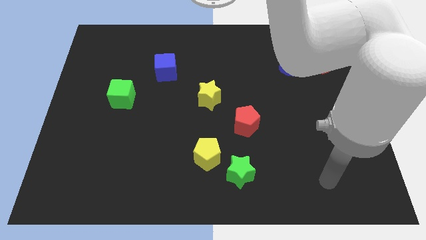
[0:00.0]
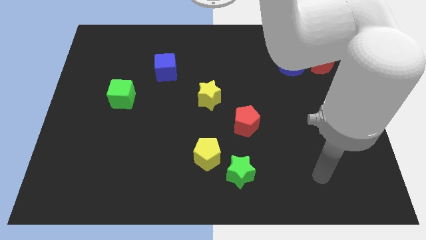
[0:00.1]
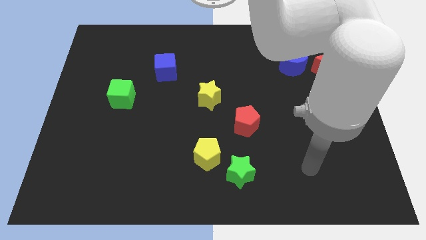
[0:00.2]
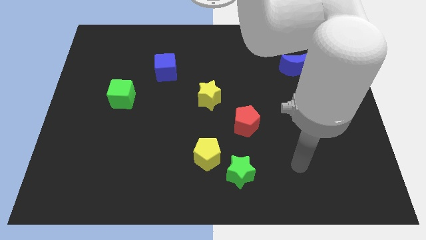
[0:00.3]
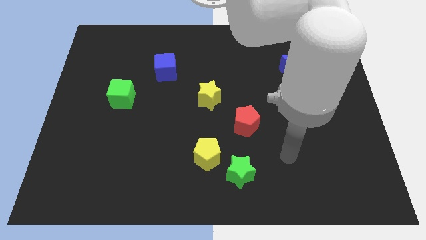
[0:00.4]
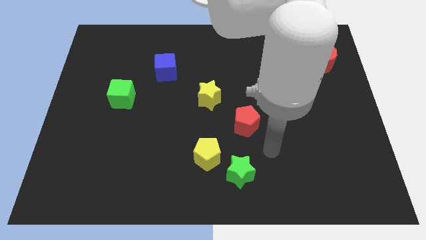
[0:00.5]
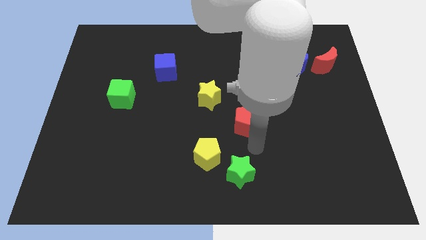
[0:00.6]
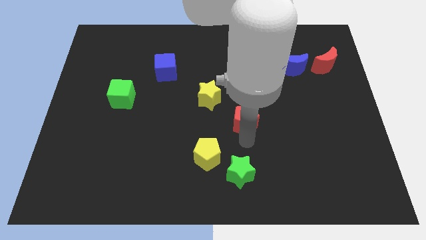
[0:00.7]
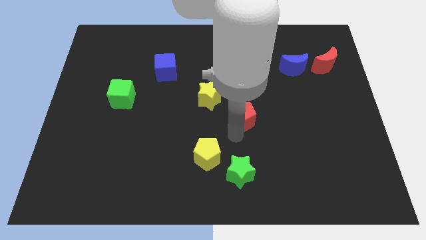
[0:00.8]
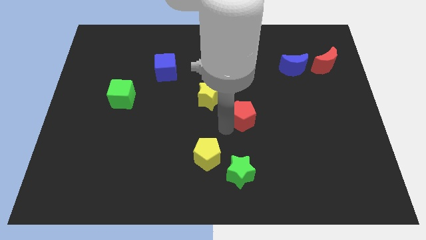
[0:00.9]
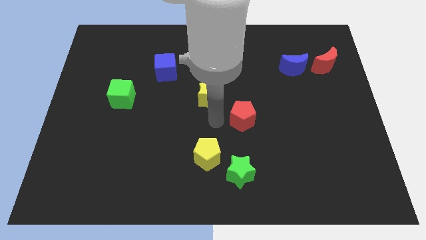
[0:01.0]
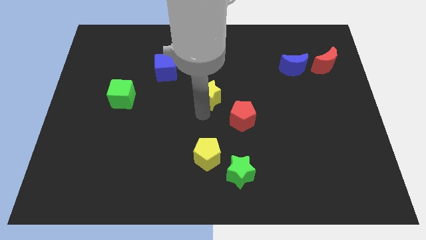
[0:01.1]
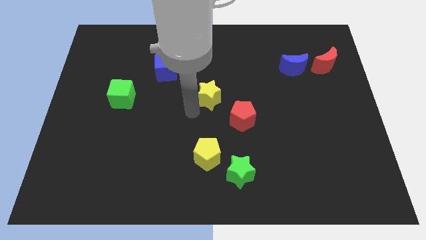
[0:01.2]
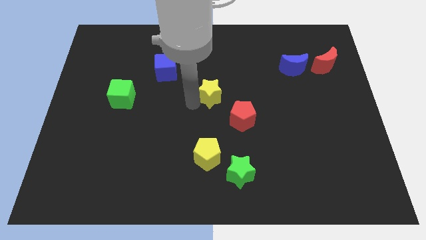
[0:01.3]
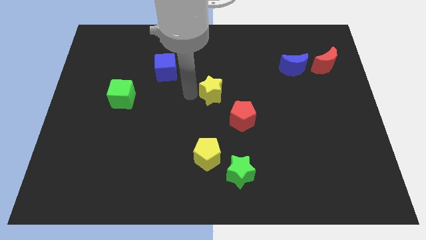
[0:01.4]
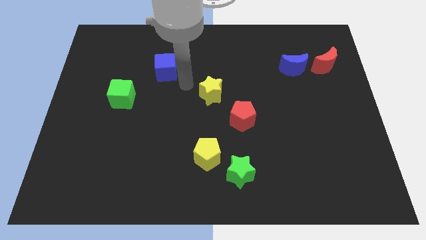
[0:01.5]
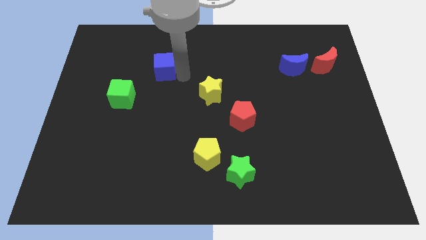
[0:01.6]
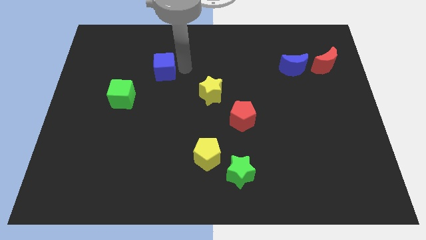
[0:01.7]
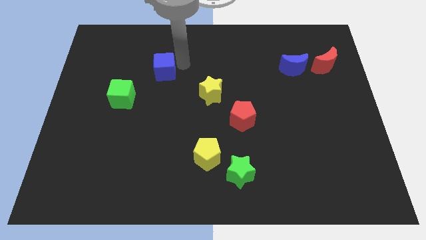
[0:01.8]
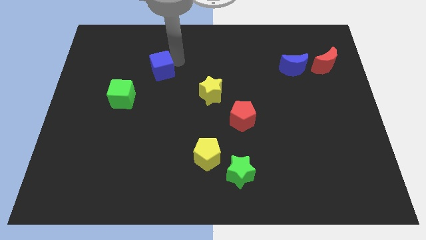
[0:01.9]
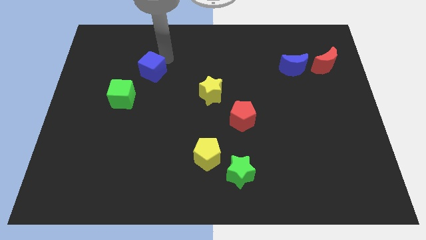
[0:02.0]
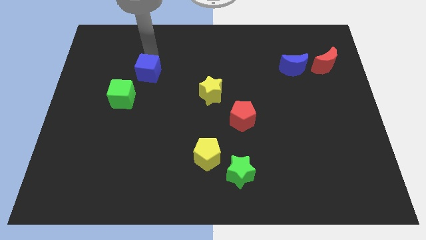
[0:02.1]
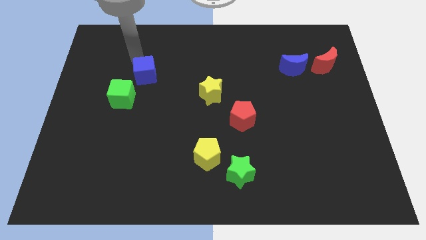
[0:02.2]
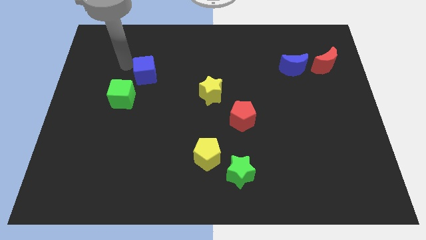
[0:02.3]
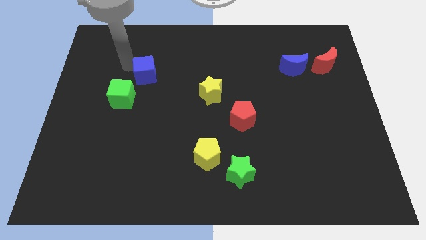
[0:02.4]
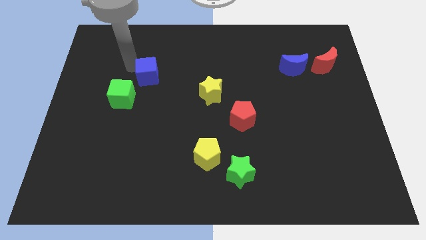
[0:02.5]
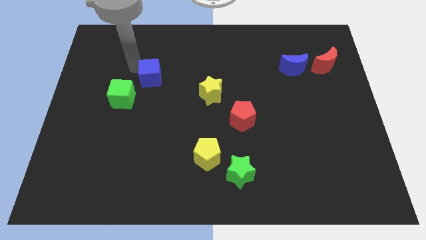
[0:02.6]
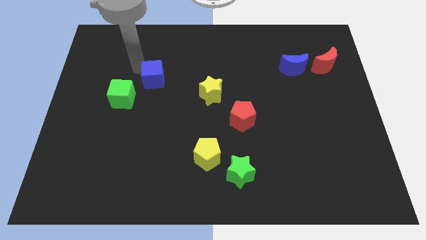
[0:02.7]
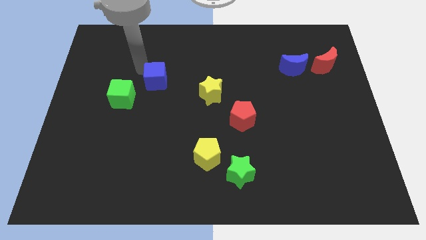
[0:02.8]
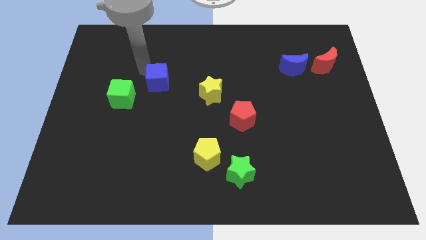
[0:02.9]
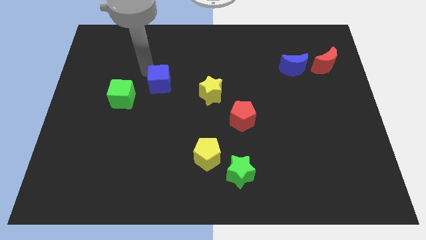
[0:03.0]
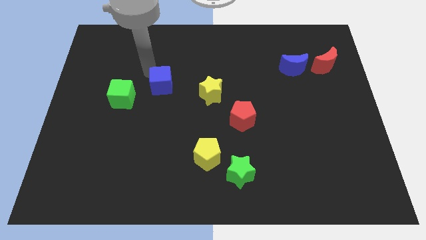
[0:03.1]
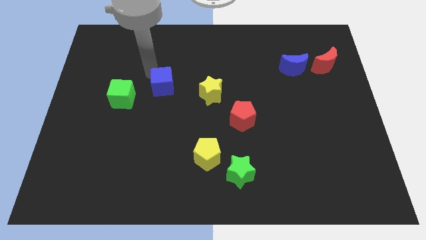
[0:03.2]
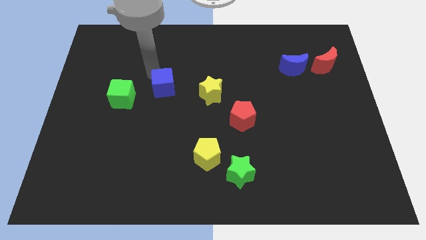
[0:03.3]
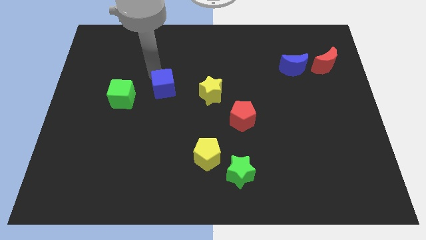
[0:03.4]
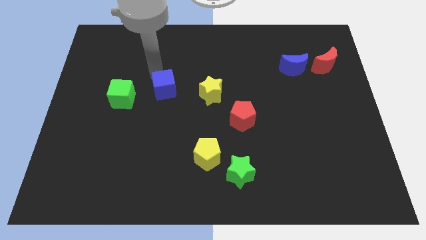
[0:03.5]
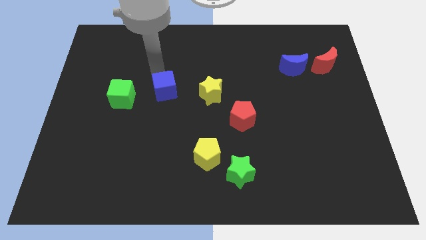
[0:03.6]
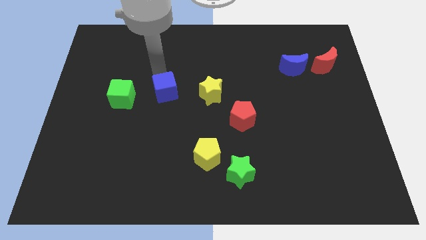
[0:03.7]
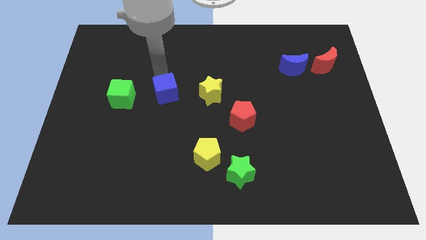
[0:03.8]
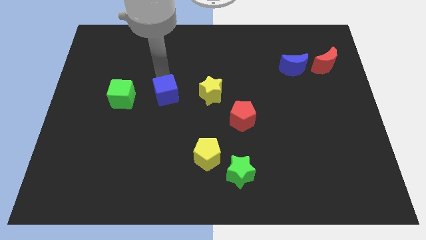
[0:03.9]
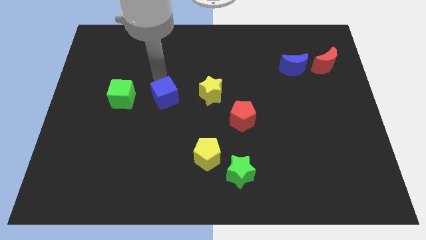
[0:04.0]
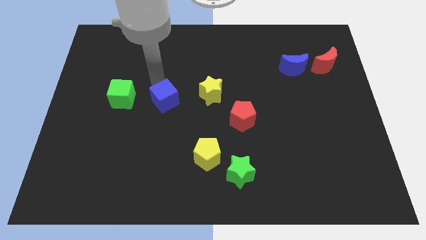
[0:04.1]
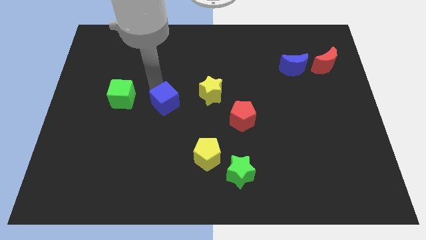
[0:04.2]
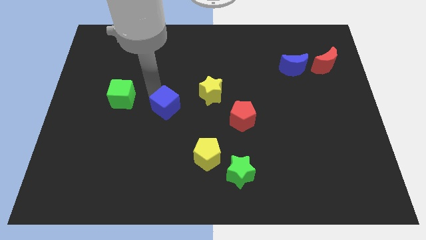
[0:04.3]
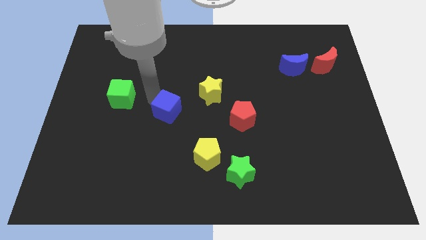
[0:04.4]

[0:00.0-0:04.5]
slide the blue cube a little bit diagonally downwards and right

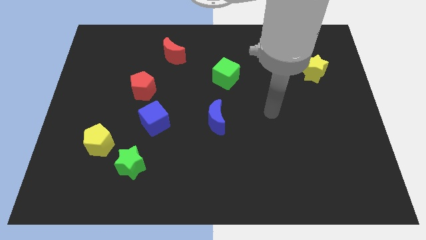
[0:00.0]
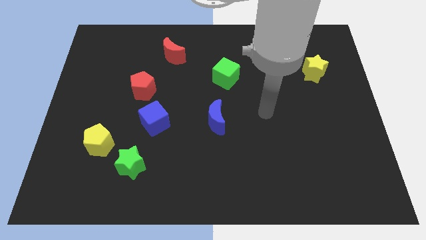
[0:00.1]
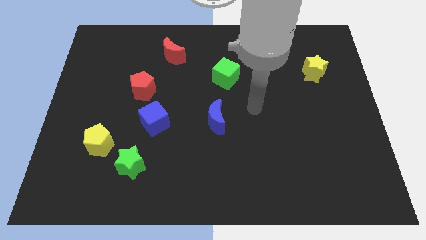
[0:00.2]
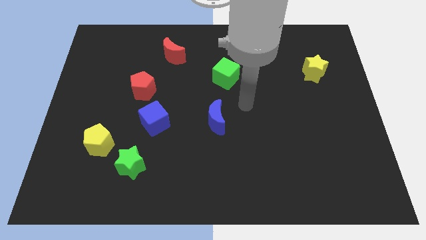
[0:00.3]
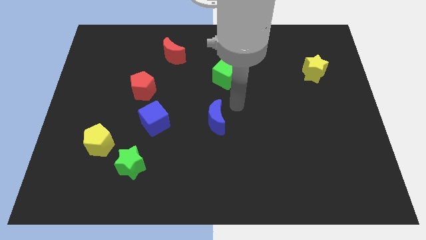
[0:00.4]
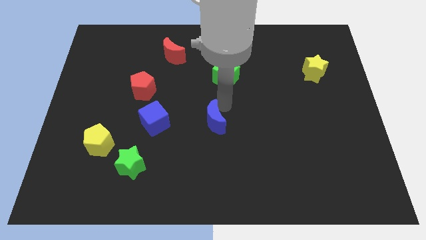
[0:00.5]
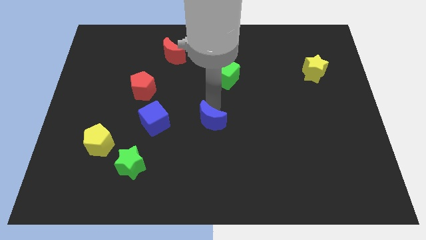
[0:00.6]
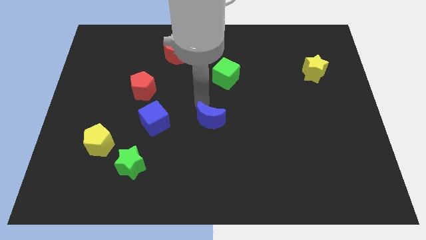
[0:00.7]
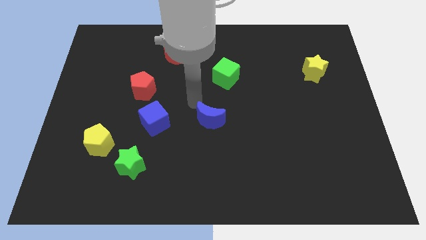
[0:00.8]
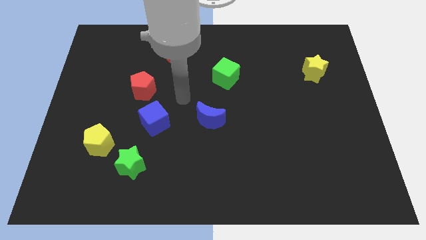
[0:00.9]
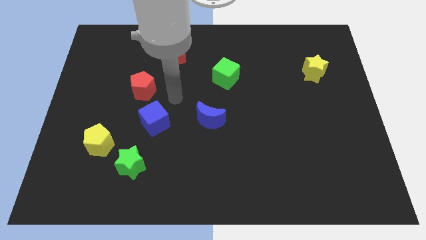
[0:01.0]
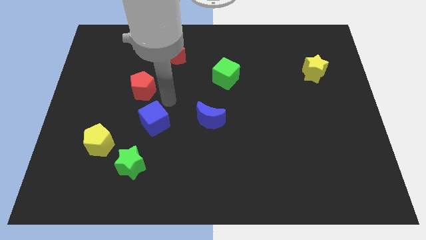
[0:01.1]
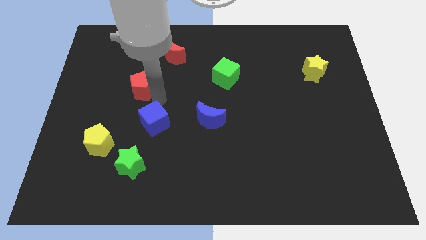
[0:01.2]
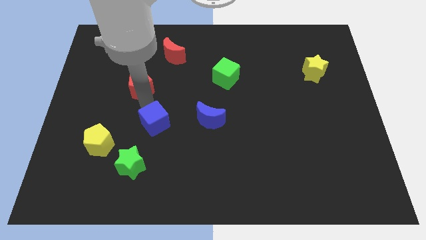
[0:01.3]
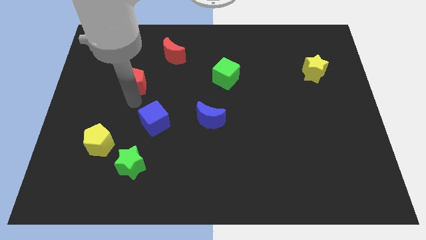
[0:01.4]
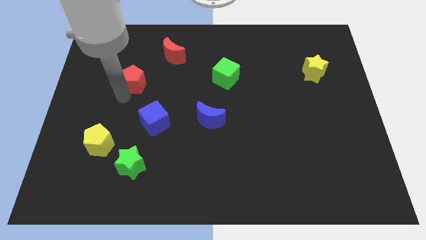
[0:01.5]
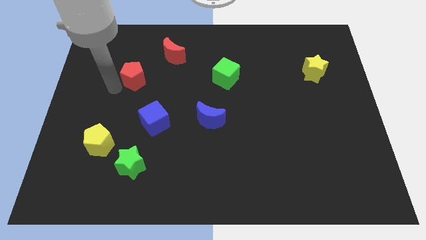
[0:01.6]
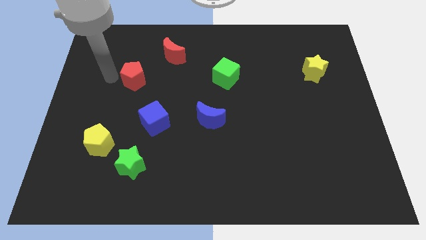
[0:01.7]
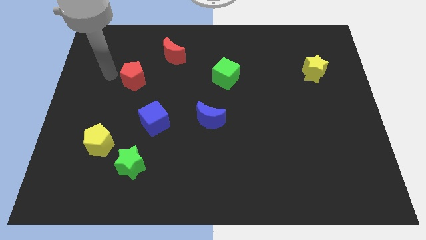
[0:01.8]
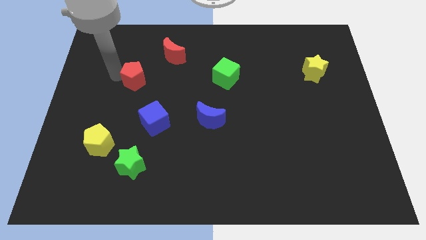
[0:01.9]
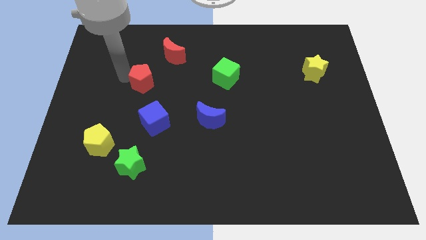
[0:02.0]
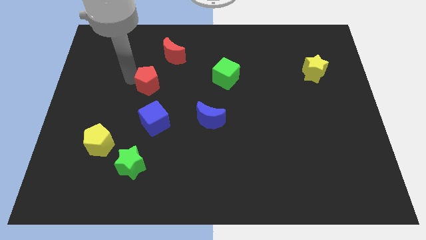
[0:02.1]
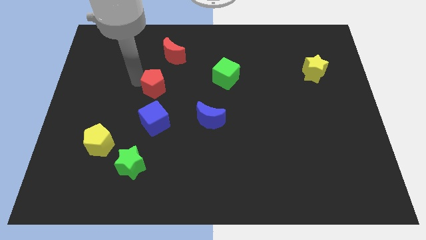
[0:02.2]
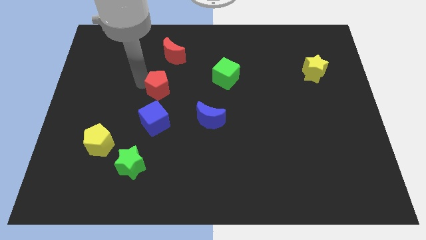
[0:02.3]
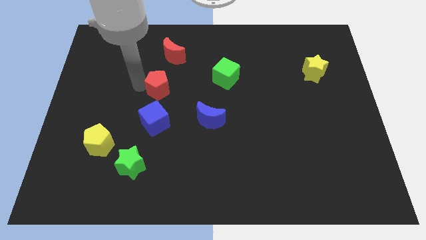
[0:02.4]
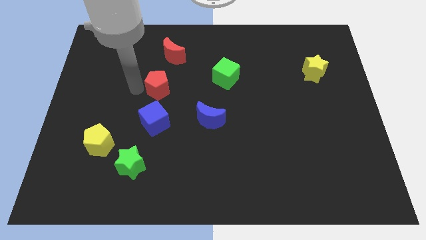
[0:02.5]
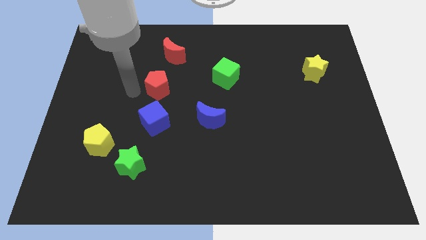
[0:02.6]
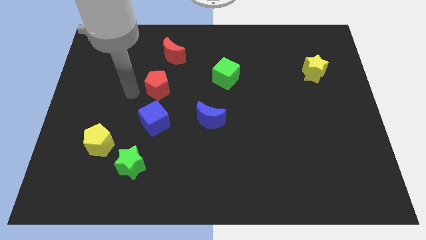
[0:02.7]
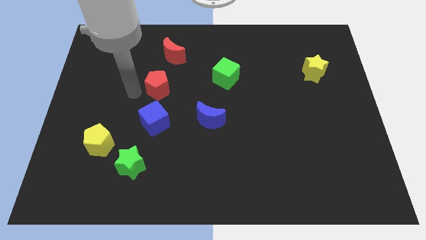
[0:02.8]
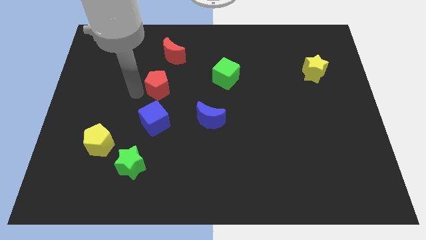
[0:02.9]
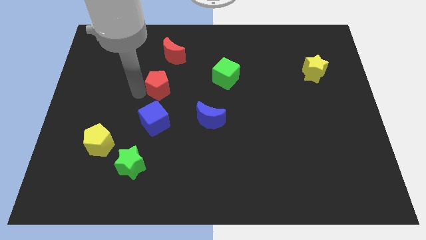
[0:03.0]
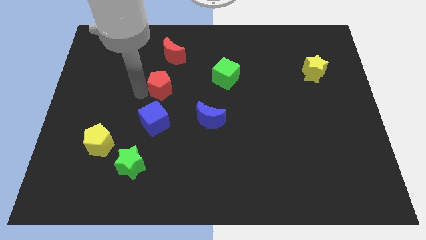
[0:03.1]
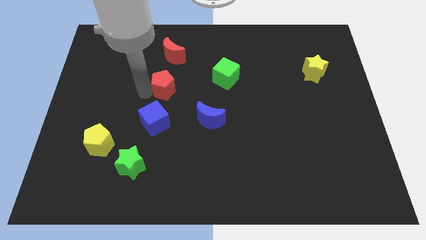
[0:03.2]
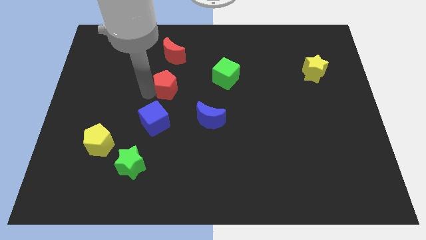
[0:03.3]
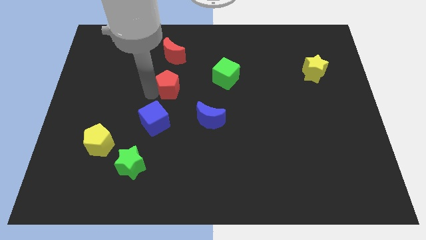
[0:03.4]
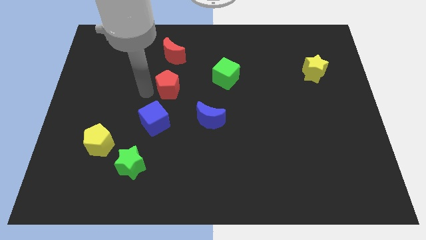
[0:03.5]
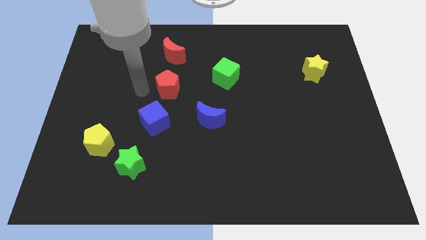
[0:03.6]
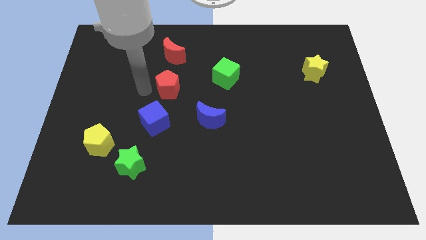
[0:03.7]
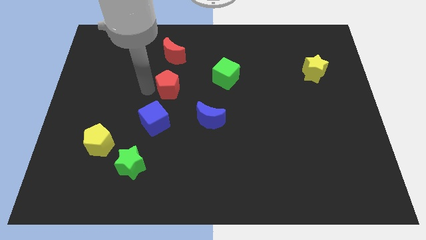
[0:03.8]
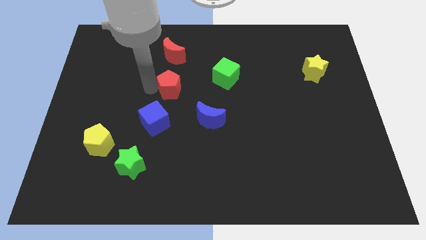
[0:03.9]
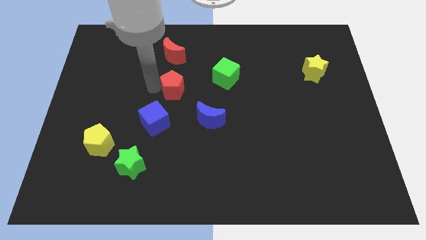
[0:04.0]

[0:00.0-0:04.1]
slightly slide the red pentagon right
